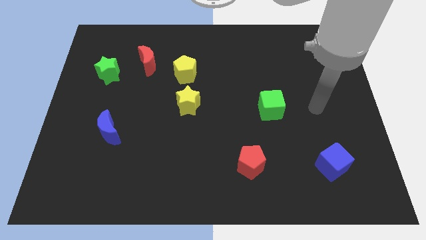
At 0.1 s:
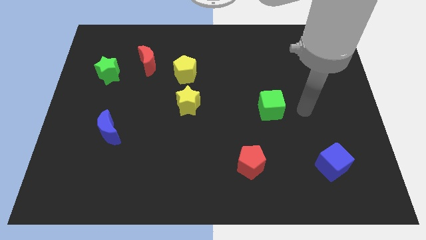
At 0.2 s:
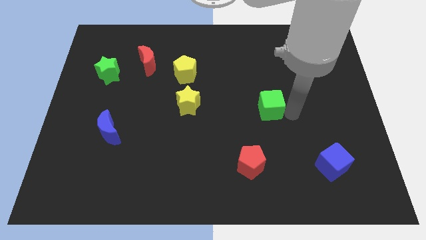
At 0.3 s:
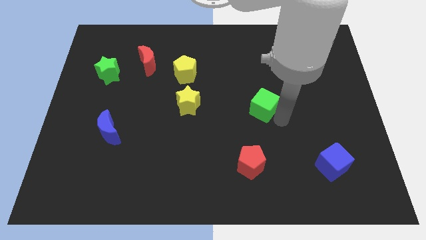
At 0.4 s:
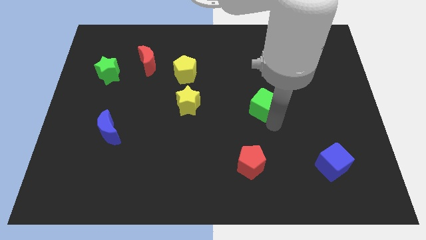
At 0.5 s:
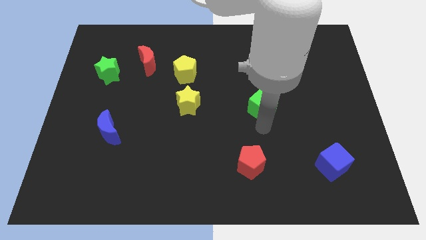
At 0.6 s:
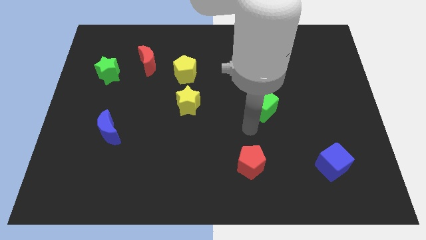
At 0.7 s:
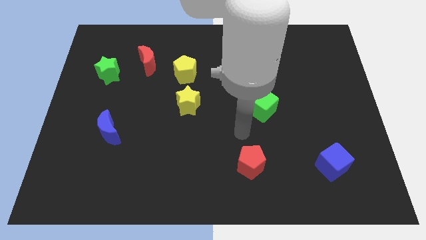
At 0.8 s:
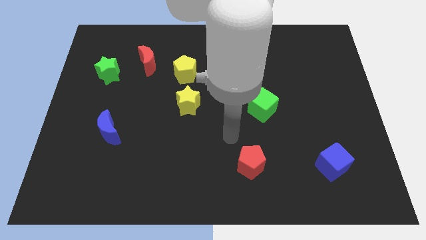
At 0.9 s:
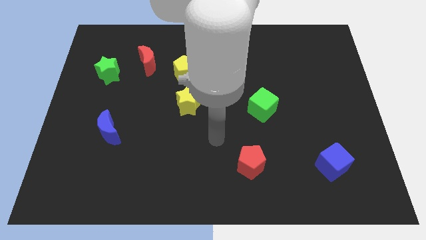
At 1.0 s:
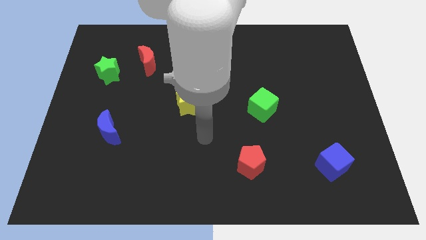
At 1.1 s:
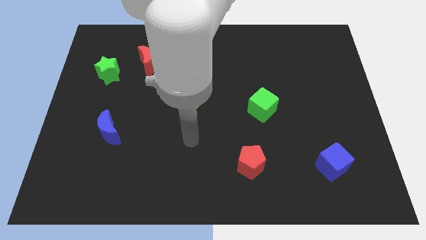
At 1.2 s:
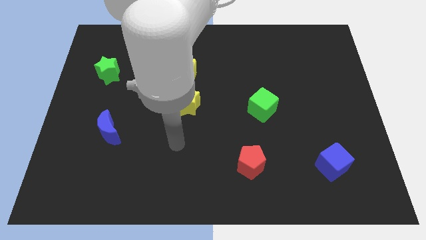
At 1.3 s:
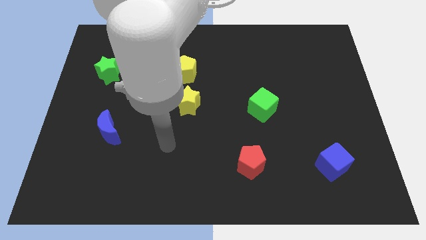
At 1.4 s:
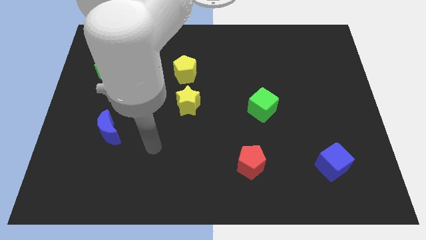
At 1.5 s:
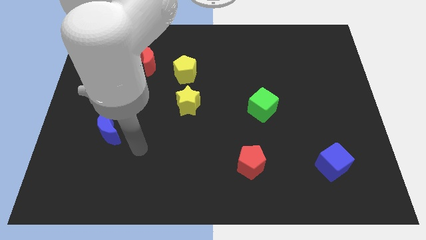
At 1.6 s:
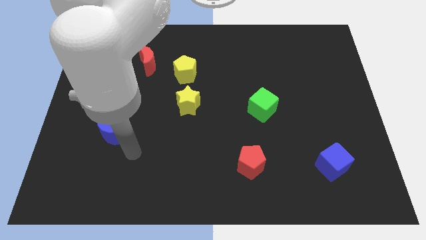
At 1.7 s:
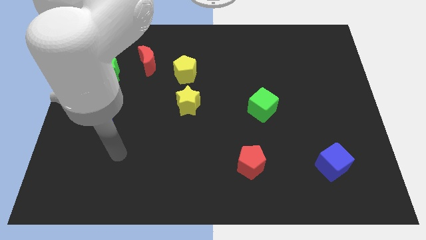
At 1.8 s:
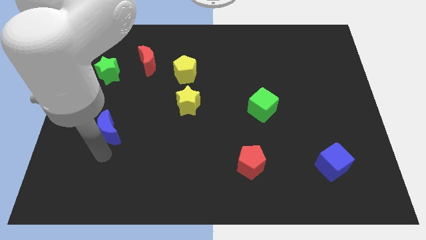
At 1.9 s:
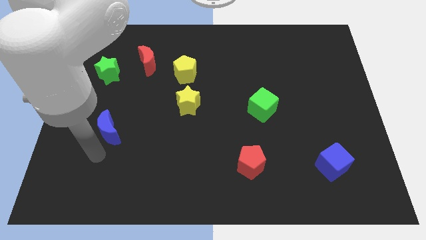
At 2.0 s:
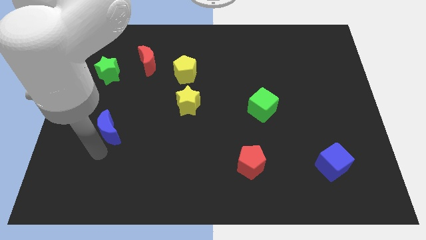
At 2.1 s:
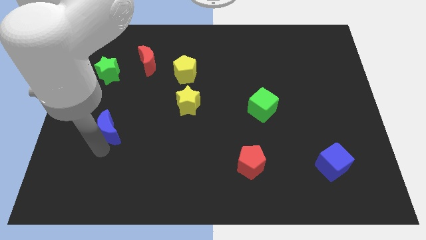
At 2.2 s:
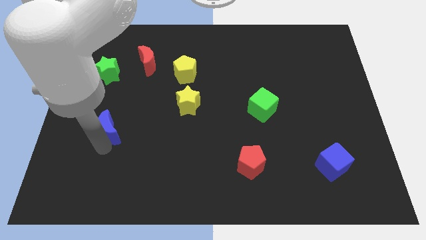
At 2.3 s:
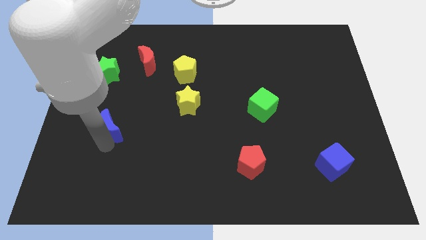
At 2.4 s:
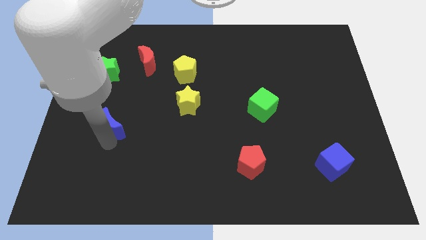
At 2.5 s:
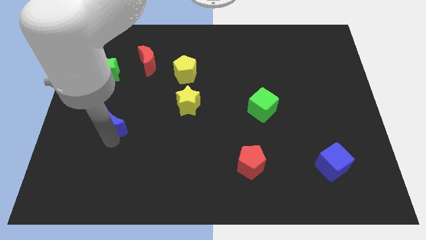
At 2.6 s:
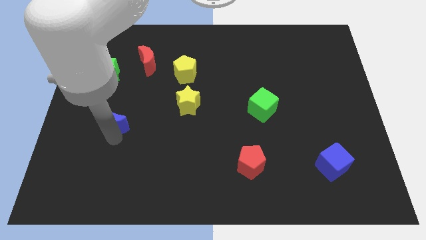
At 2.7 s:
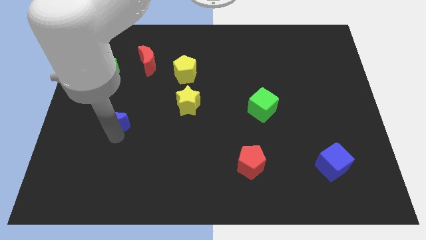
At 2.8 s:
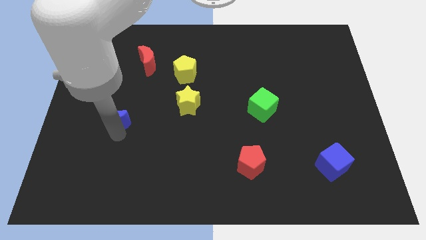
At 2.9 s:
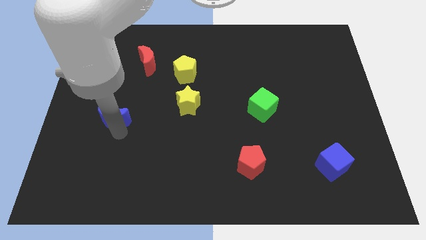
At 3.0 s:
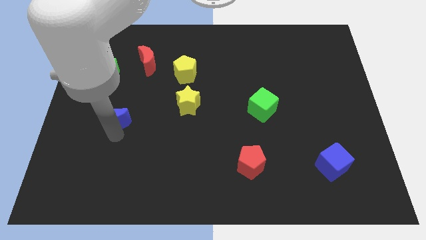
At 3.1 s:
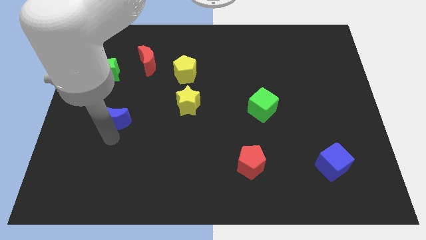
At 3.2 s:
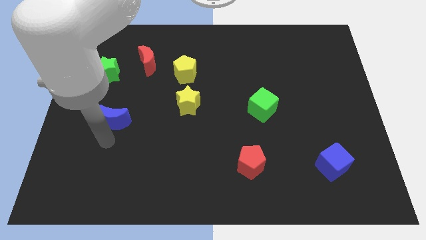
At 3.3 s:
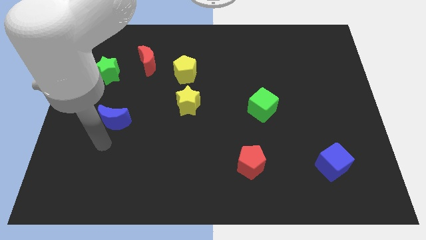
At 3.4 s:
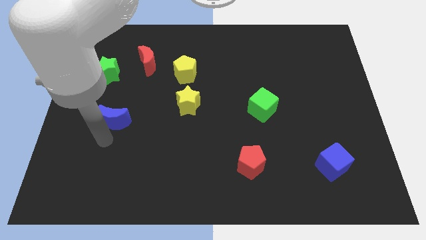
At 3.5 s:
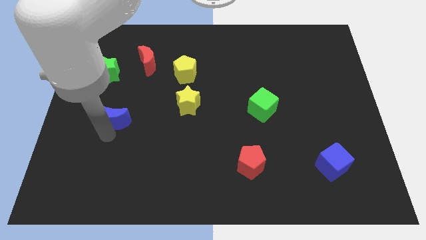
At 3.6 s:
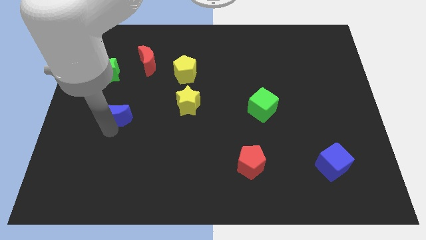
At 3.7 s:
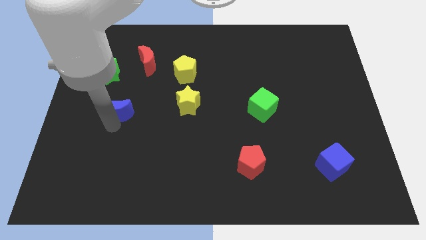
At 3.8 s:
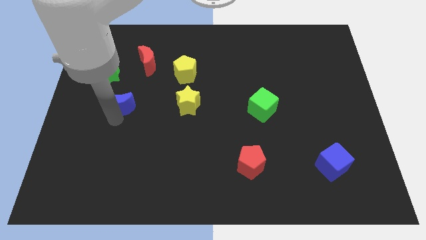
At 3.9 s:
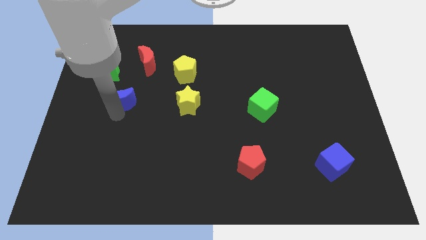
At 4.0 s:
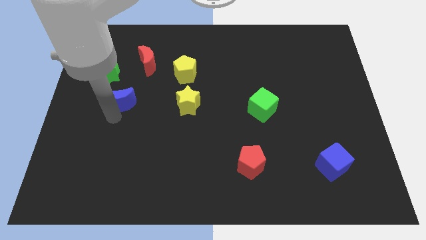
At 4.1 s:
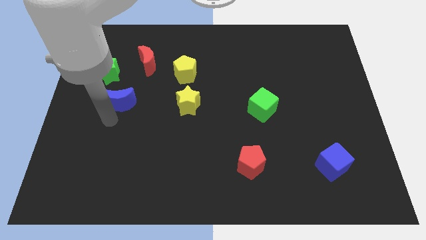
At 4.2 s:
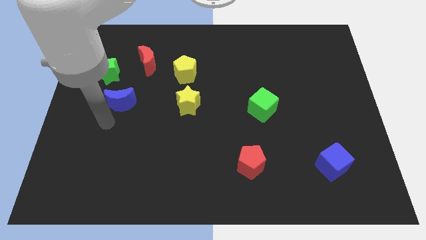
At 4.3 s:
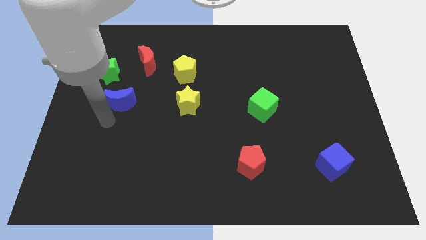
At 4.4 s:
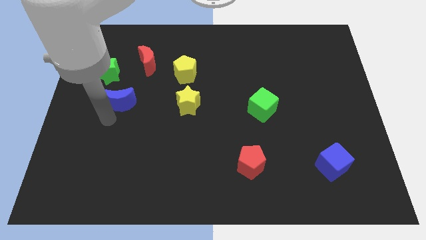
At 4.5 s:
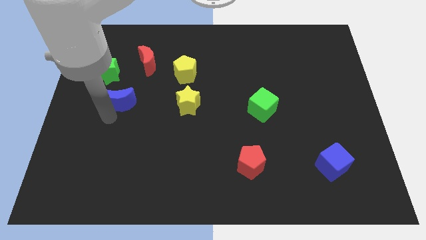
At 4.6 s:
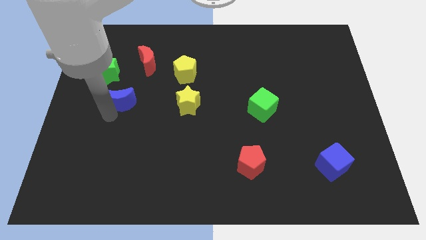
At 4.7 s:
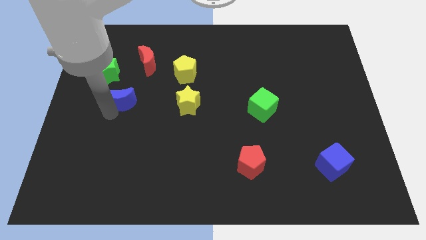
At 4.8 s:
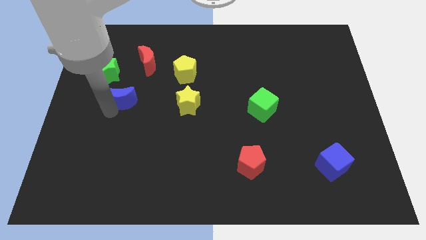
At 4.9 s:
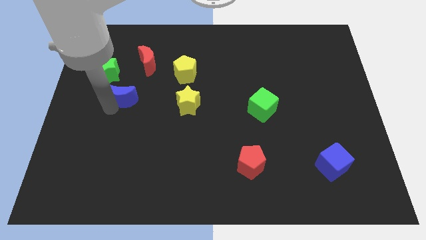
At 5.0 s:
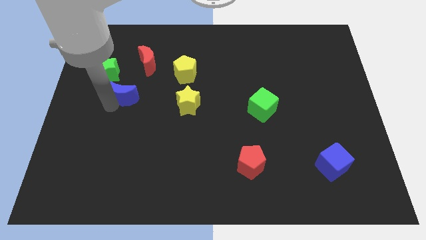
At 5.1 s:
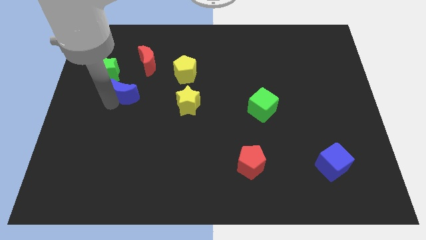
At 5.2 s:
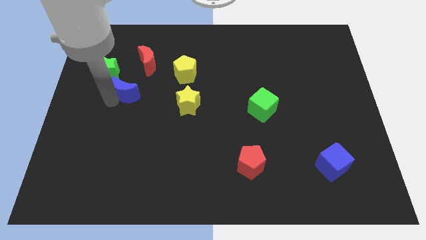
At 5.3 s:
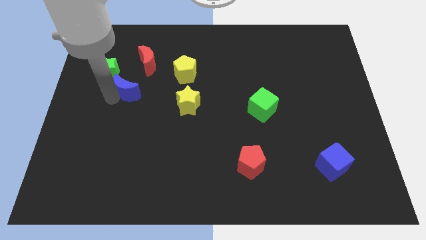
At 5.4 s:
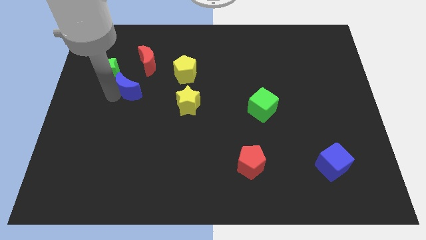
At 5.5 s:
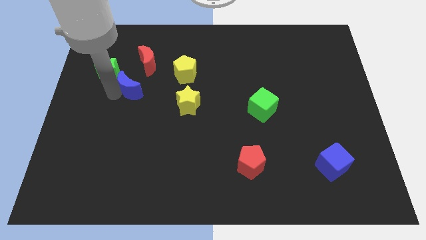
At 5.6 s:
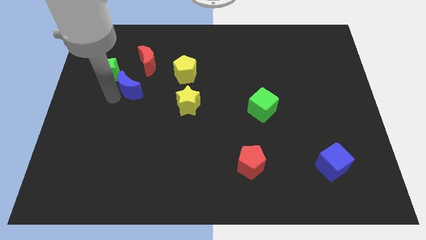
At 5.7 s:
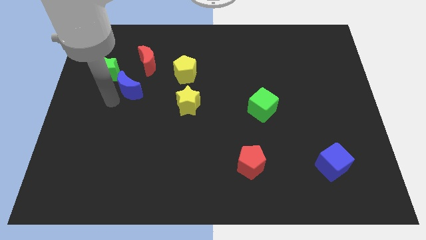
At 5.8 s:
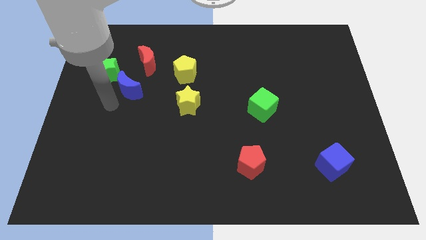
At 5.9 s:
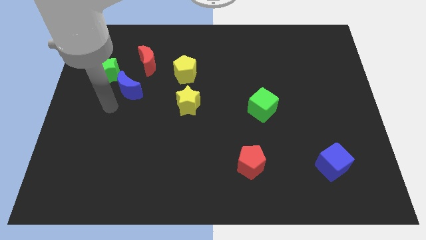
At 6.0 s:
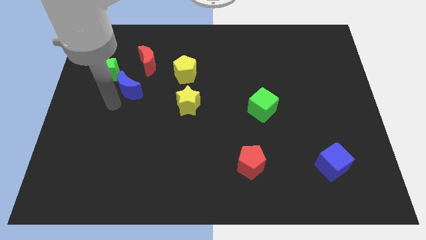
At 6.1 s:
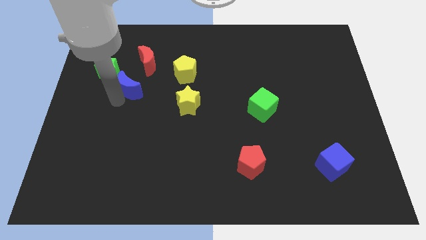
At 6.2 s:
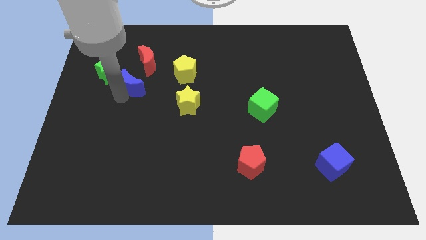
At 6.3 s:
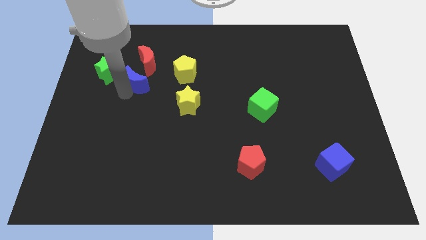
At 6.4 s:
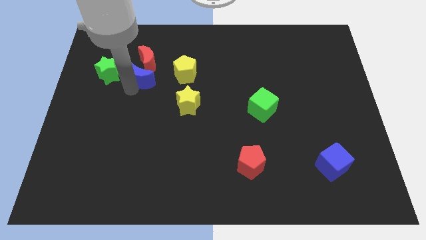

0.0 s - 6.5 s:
slide the blue moon next to the red moon
